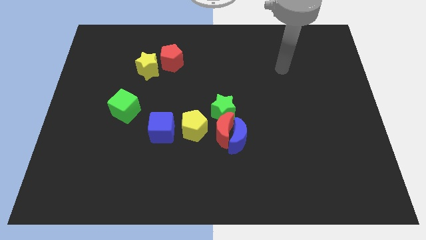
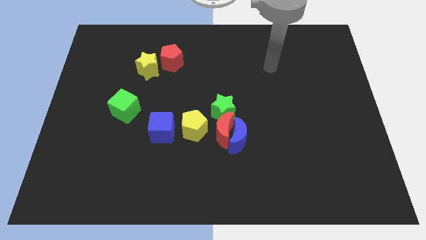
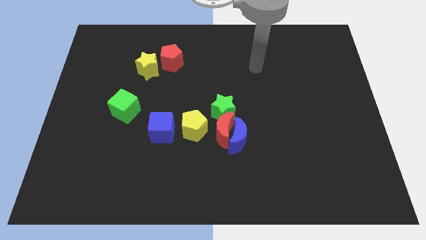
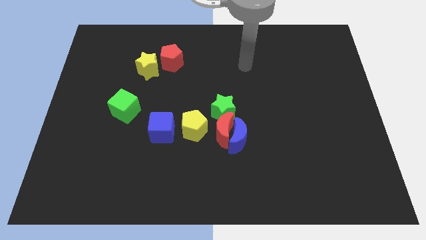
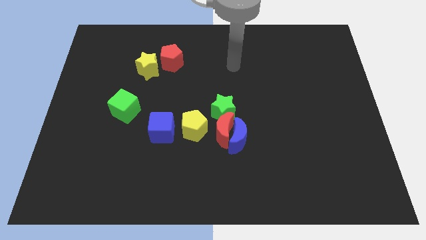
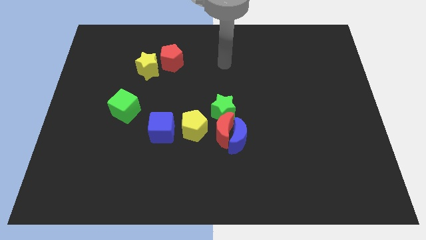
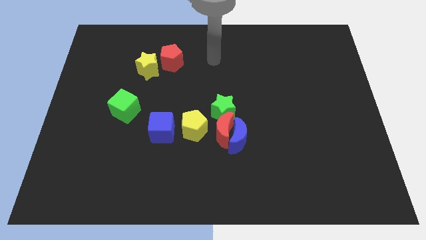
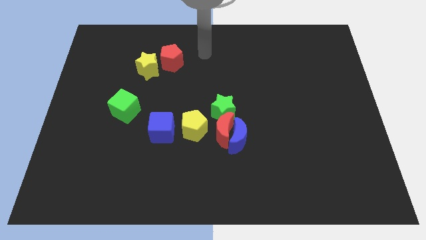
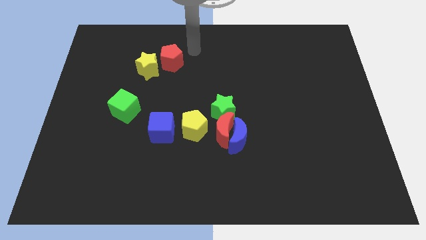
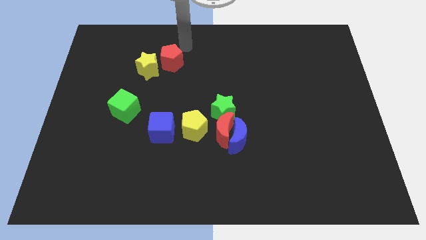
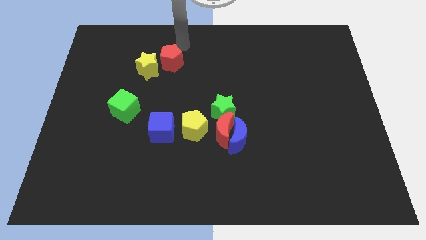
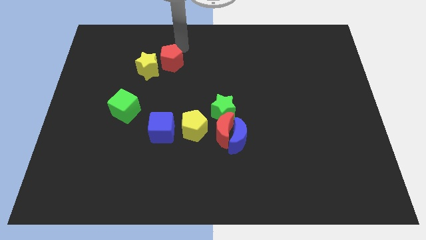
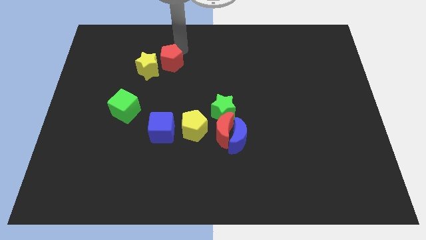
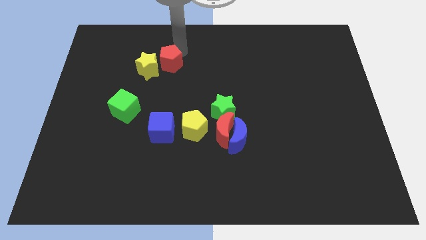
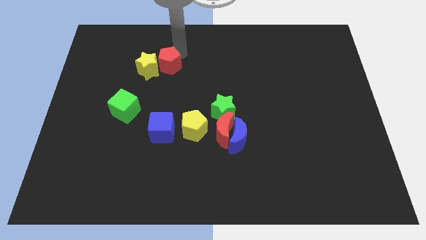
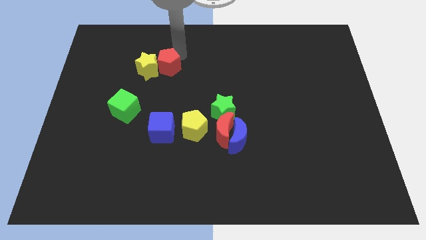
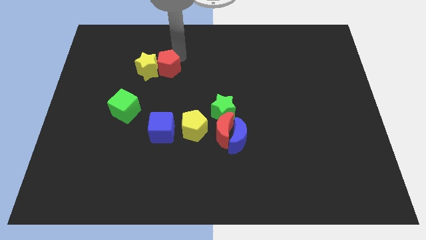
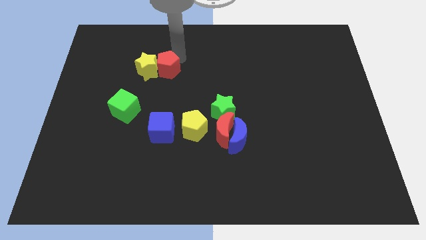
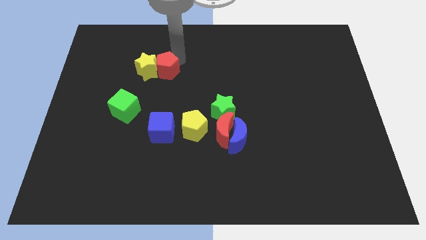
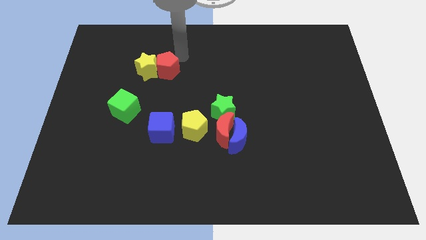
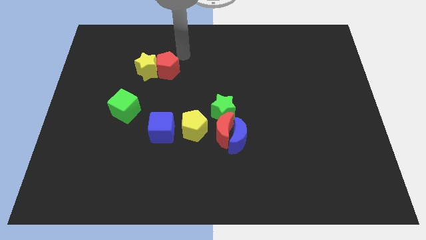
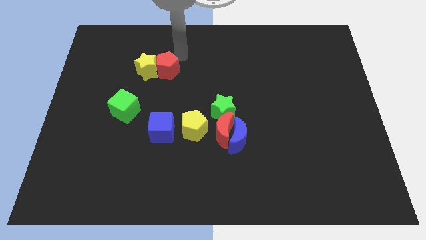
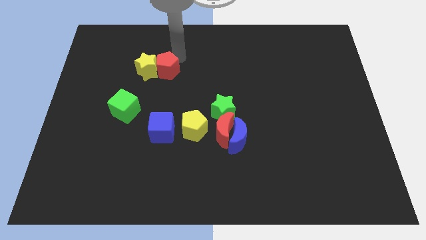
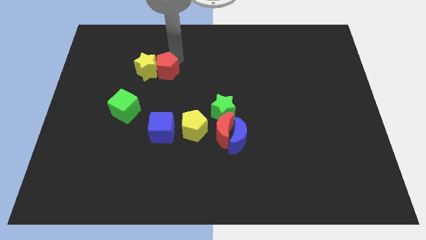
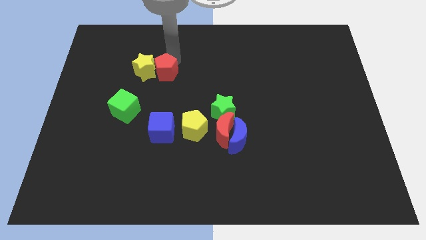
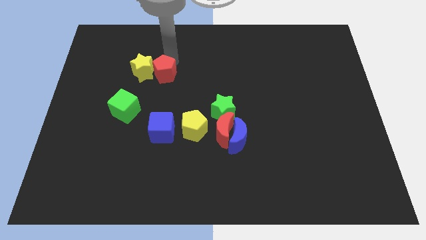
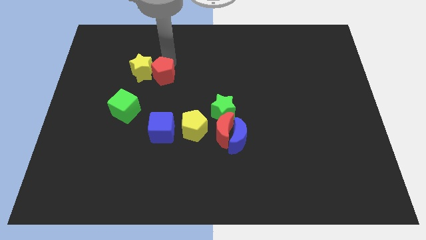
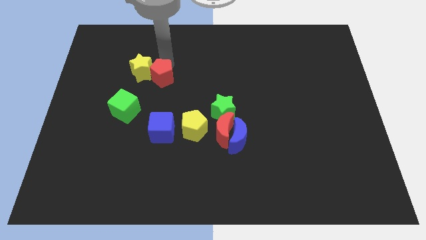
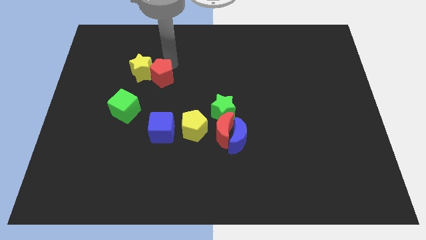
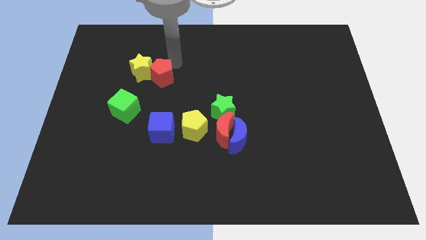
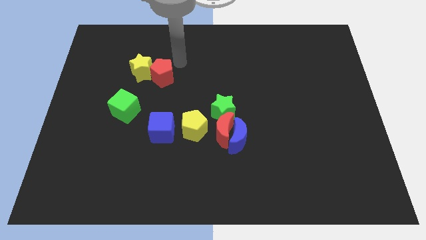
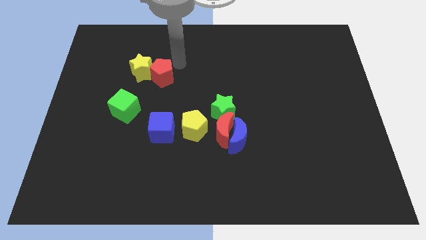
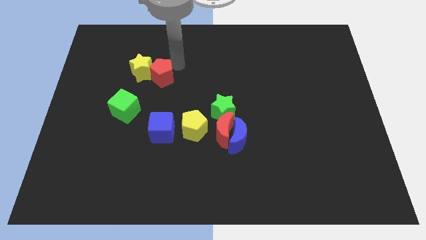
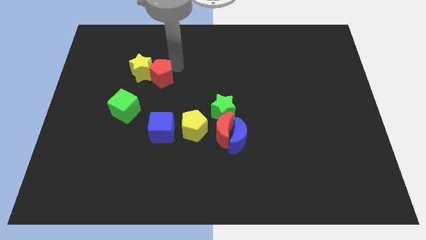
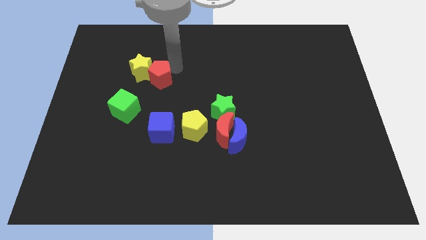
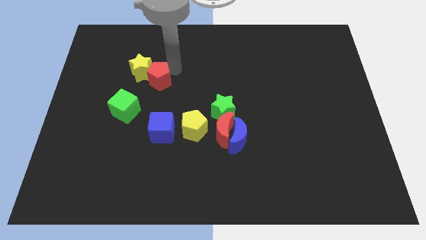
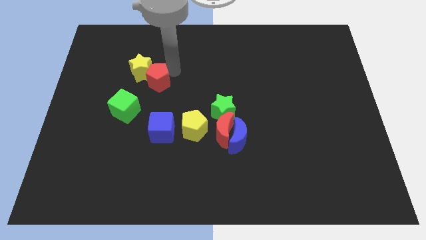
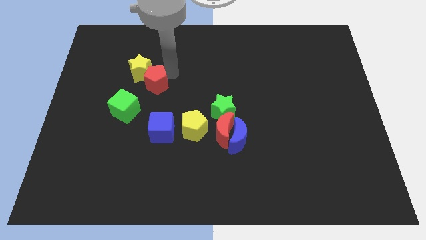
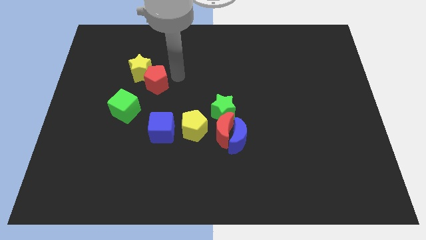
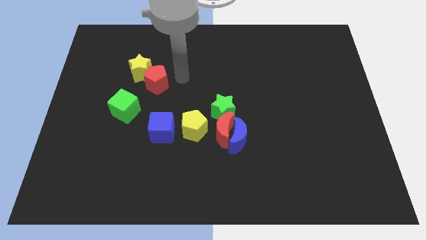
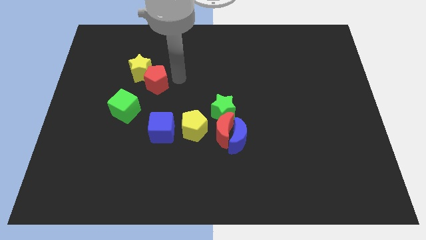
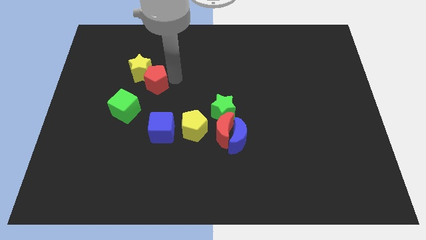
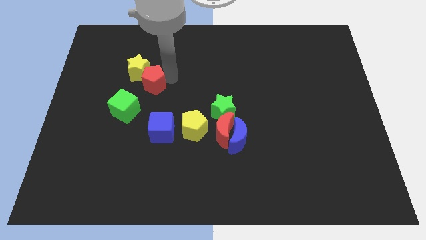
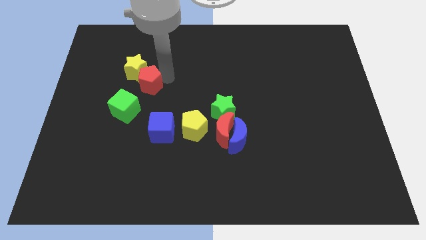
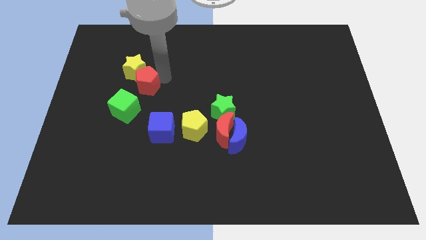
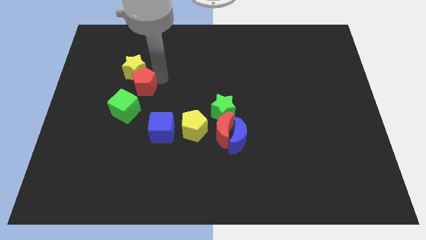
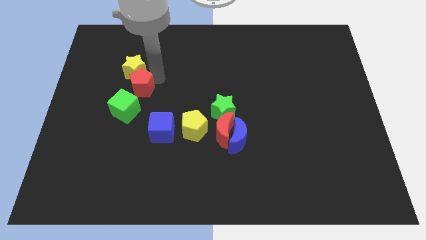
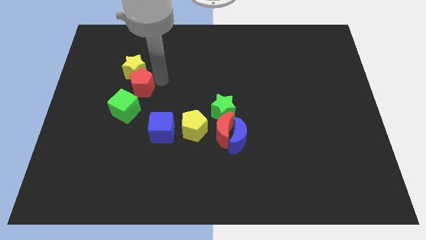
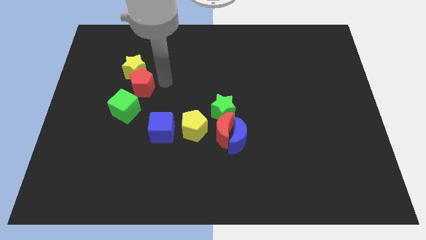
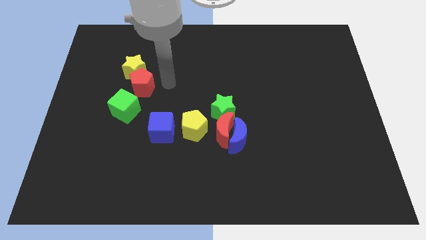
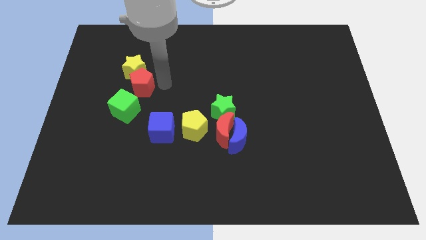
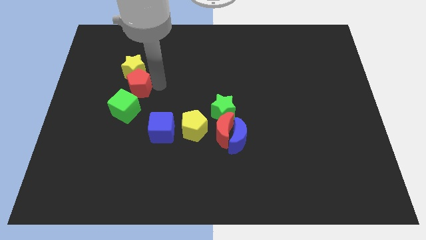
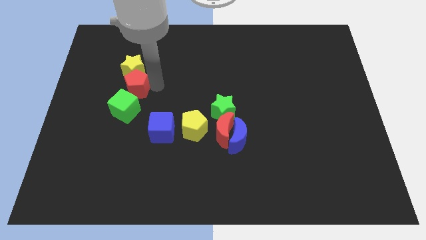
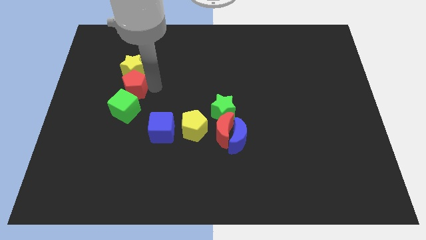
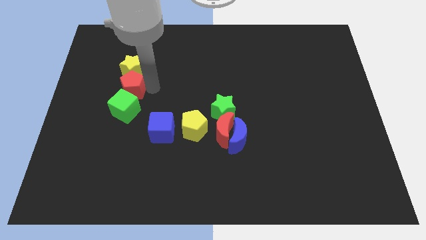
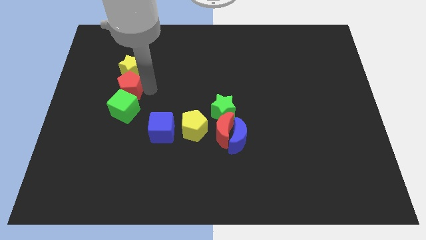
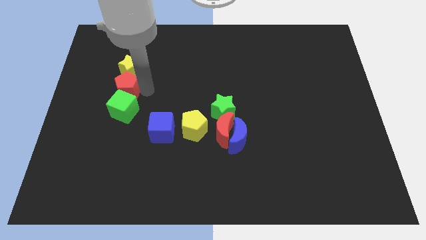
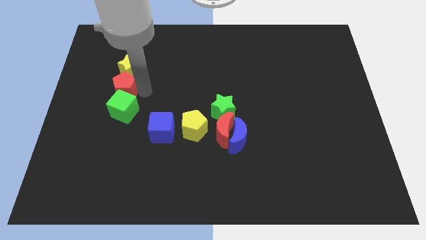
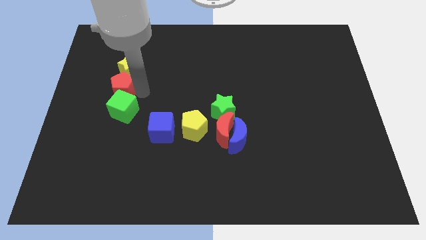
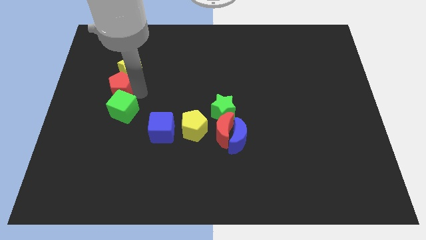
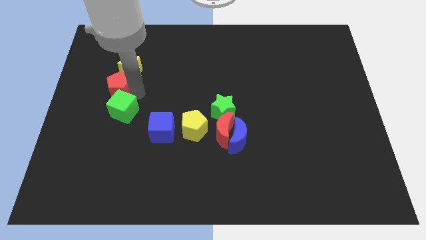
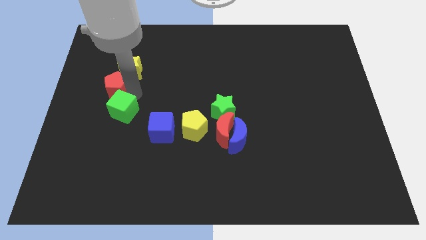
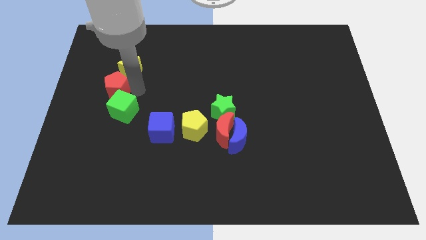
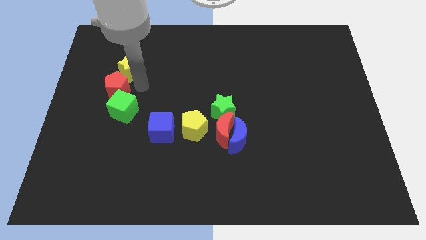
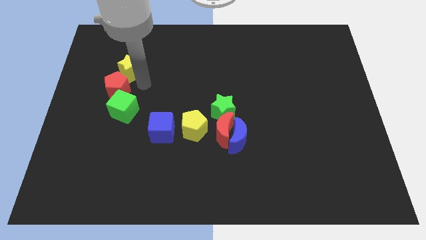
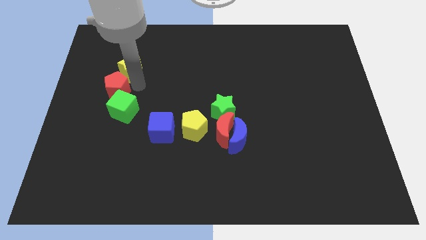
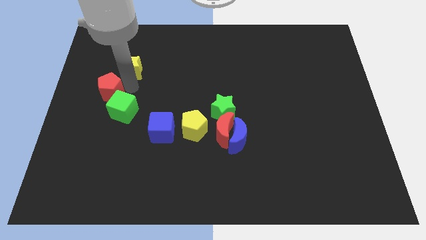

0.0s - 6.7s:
move the red pentagon to the left side of the board
